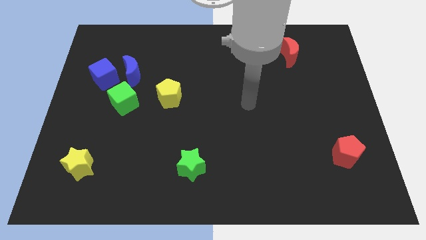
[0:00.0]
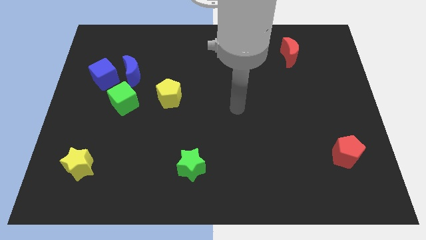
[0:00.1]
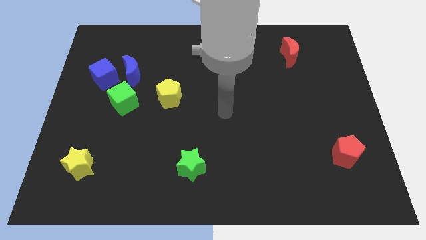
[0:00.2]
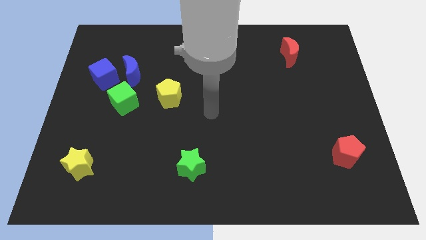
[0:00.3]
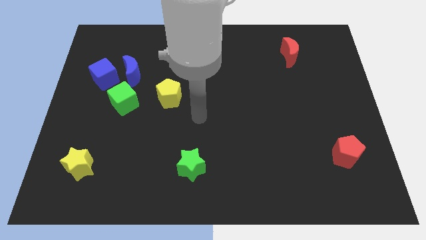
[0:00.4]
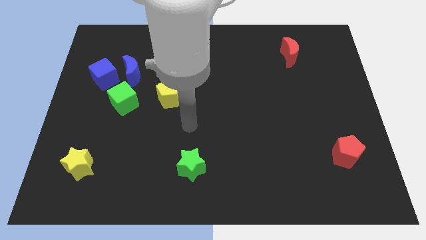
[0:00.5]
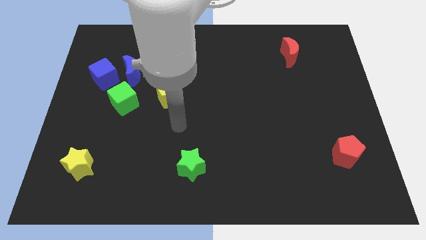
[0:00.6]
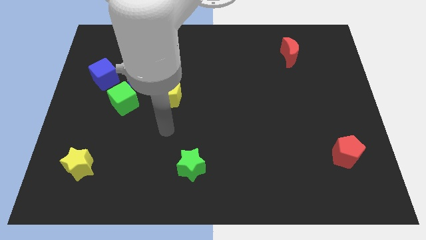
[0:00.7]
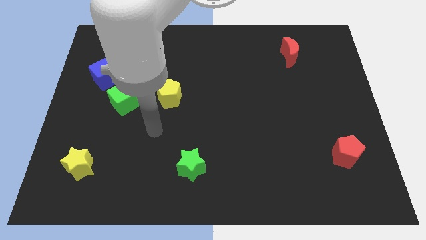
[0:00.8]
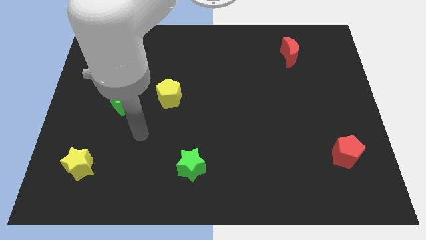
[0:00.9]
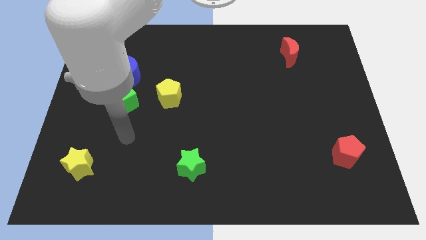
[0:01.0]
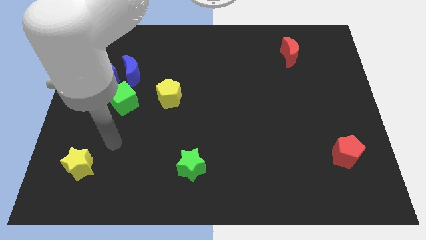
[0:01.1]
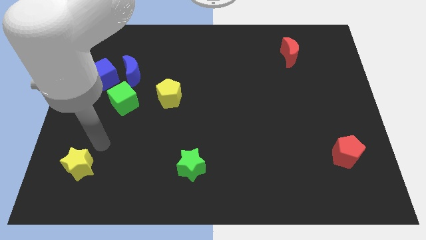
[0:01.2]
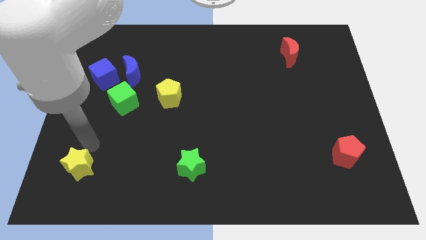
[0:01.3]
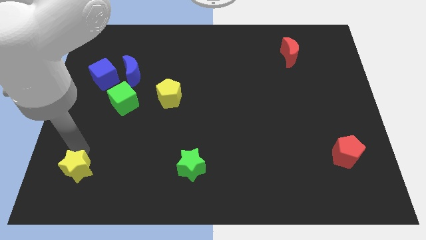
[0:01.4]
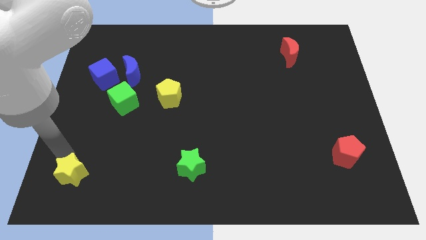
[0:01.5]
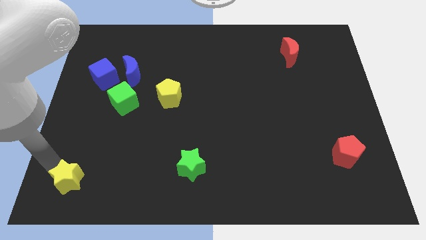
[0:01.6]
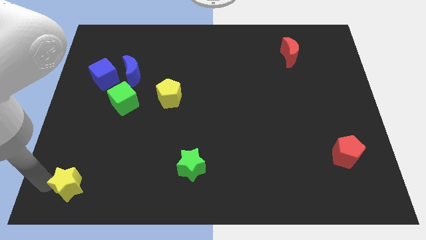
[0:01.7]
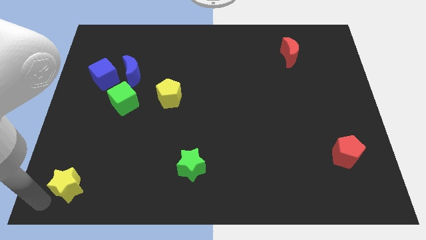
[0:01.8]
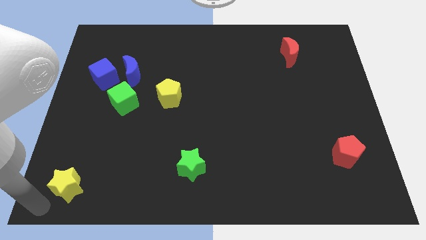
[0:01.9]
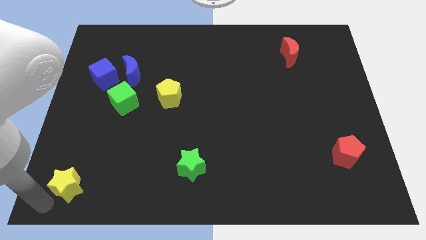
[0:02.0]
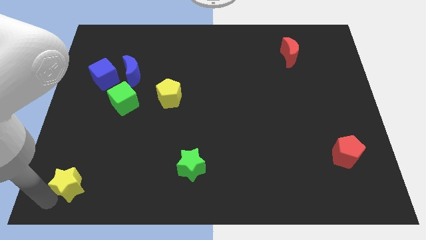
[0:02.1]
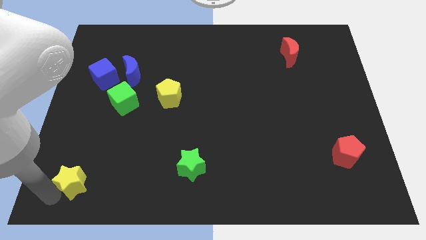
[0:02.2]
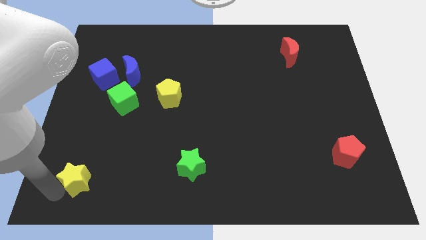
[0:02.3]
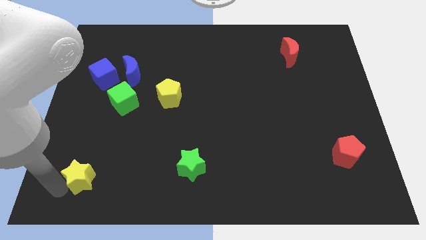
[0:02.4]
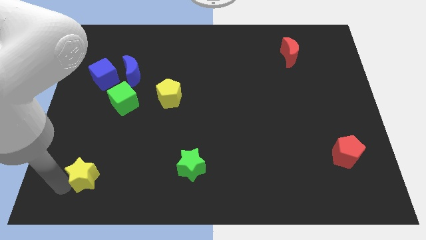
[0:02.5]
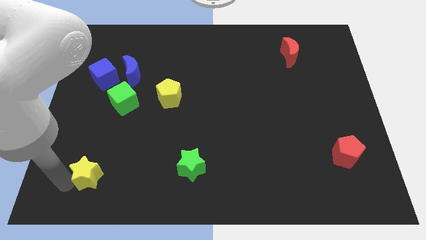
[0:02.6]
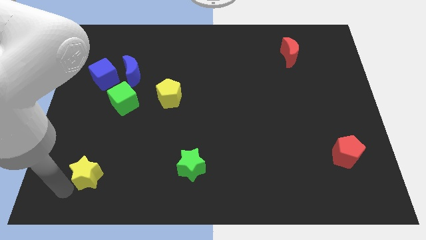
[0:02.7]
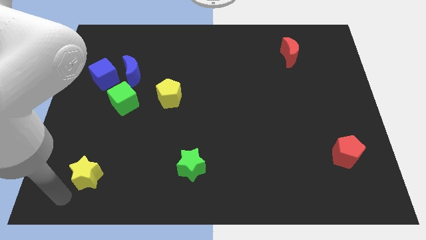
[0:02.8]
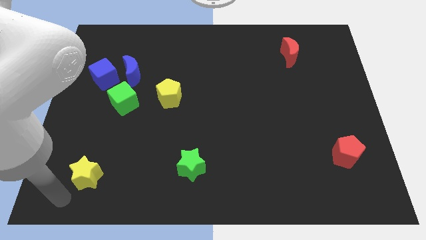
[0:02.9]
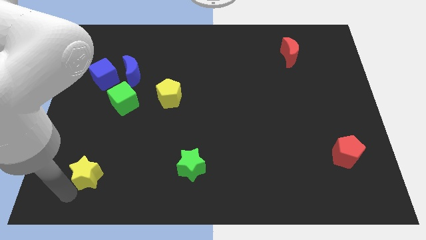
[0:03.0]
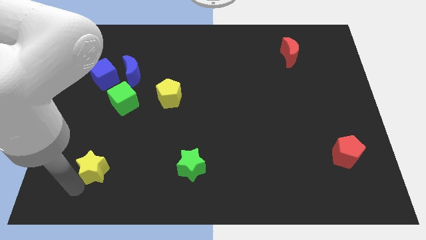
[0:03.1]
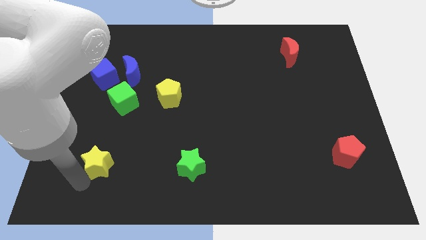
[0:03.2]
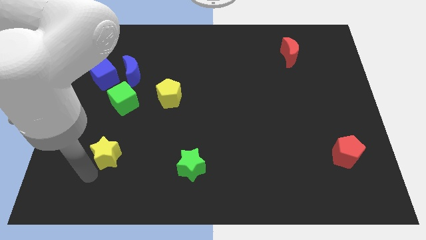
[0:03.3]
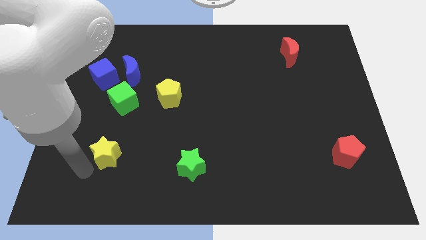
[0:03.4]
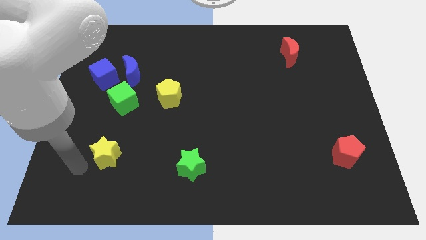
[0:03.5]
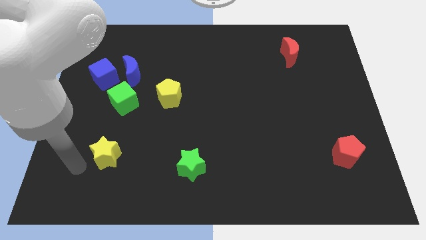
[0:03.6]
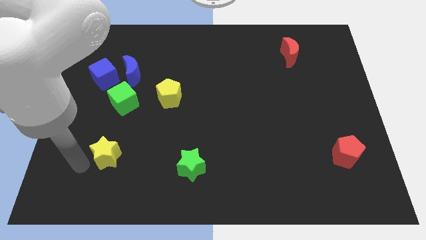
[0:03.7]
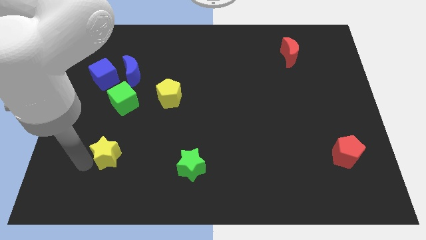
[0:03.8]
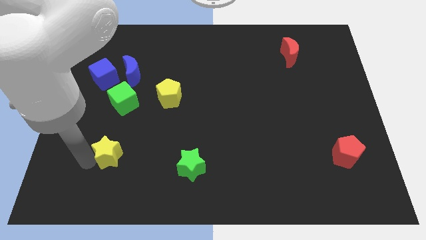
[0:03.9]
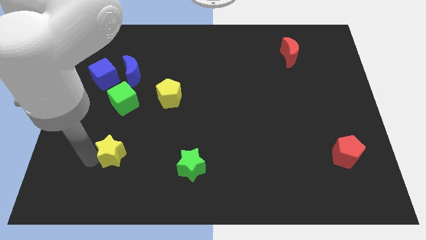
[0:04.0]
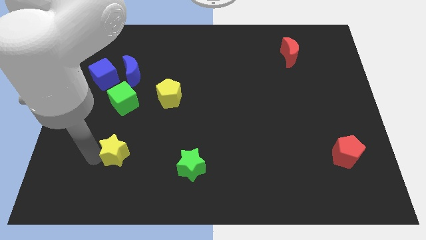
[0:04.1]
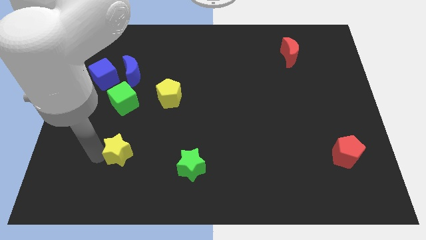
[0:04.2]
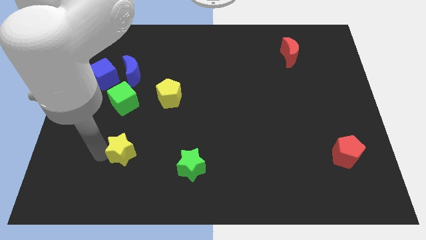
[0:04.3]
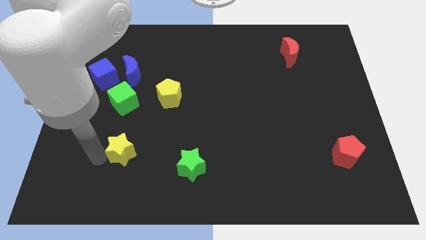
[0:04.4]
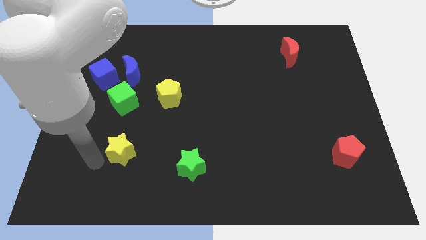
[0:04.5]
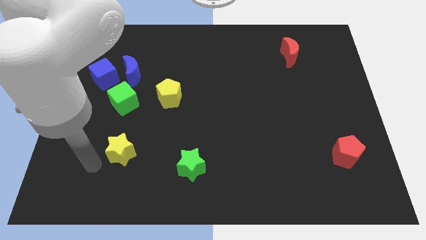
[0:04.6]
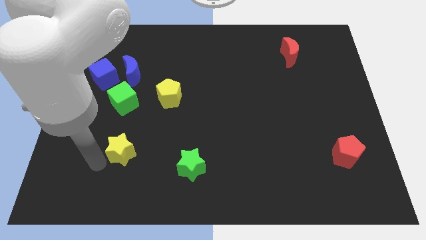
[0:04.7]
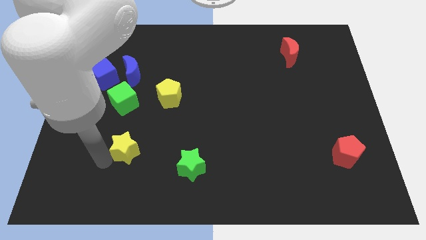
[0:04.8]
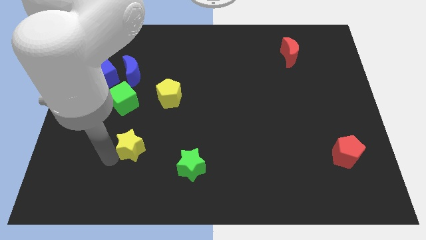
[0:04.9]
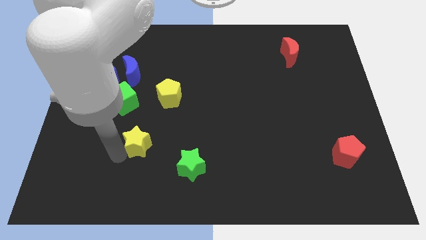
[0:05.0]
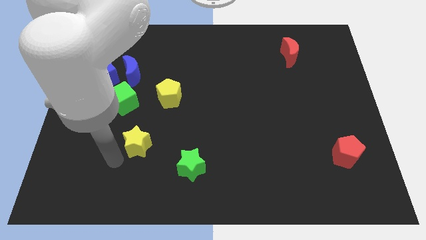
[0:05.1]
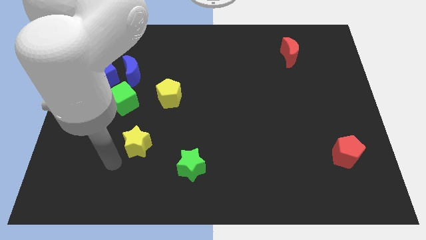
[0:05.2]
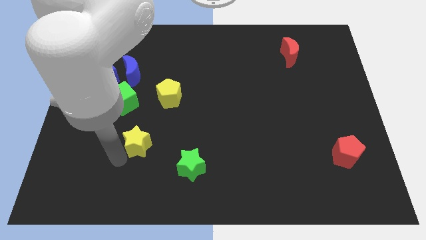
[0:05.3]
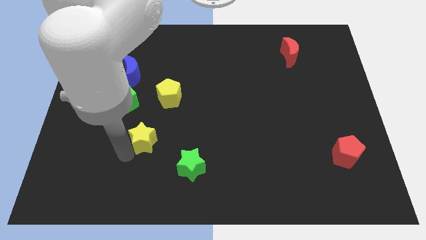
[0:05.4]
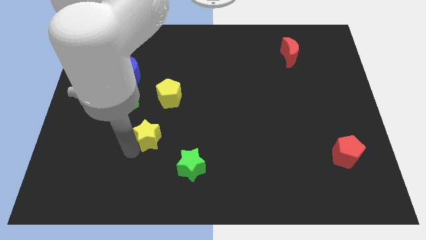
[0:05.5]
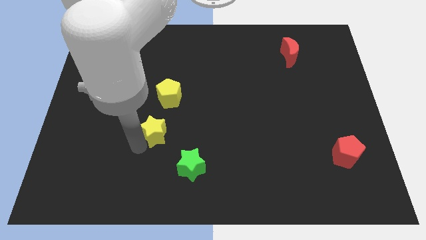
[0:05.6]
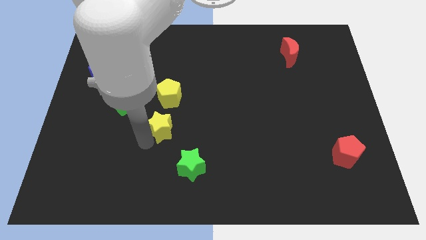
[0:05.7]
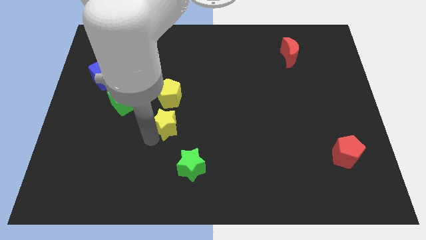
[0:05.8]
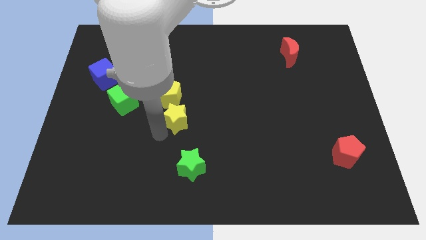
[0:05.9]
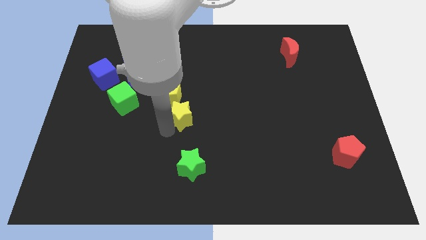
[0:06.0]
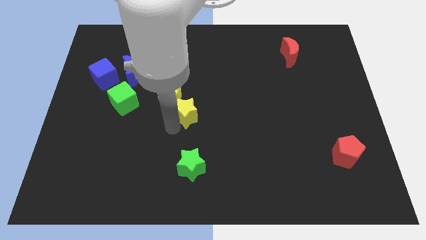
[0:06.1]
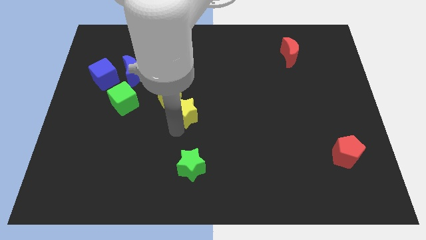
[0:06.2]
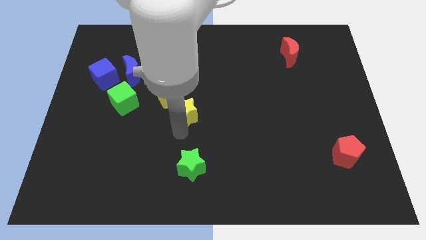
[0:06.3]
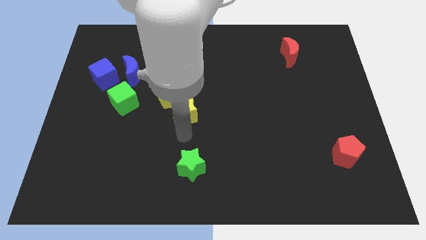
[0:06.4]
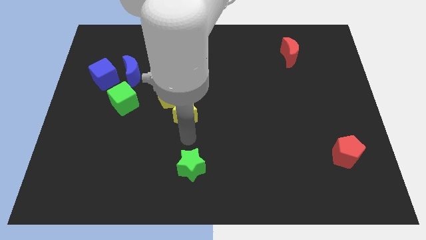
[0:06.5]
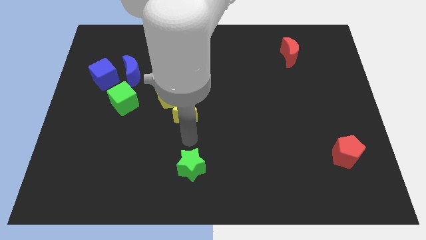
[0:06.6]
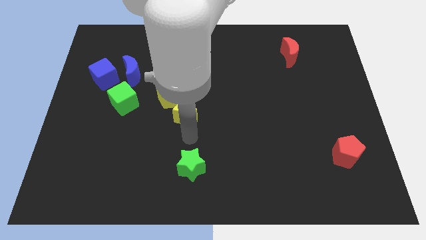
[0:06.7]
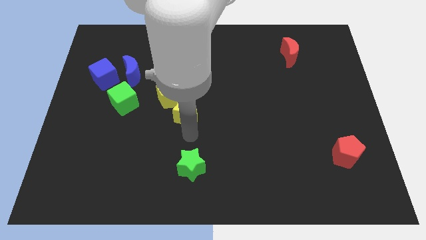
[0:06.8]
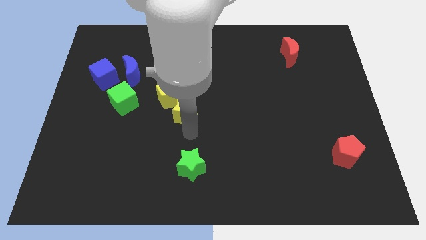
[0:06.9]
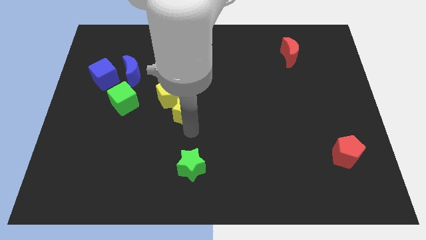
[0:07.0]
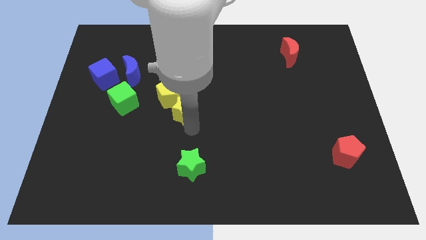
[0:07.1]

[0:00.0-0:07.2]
push the yellow star right of the green cube
